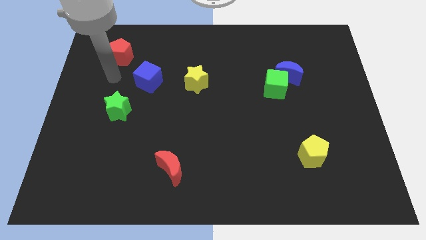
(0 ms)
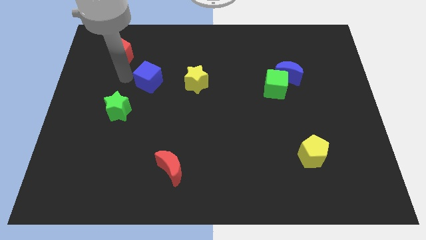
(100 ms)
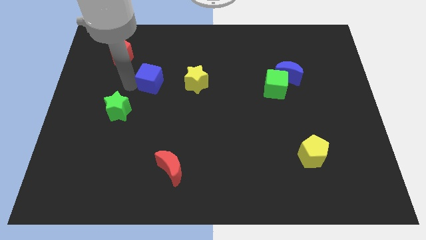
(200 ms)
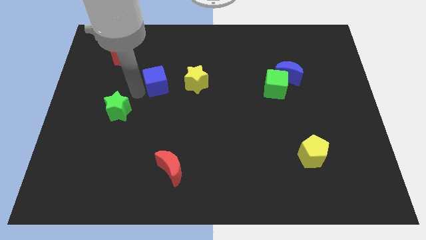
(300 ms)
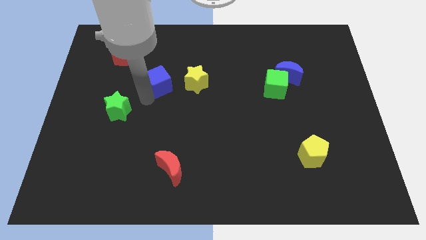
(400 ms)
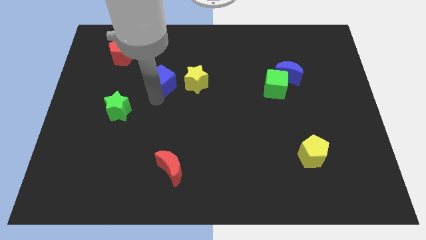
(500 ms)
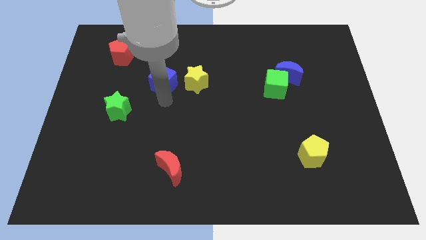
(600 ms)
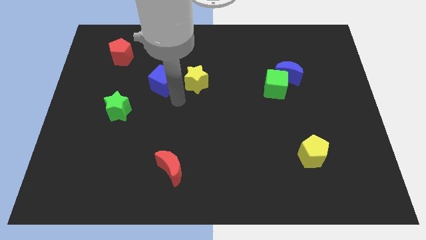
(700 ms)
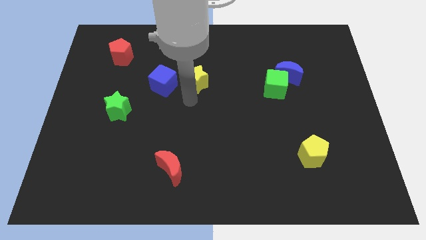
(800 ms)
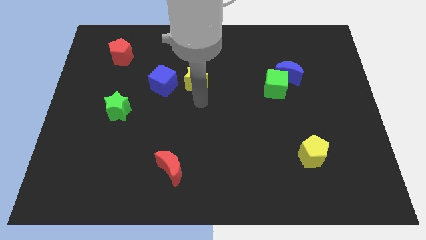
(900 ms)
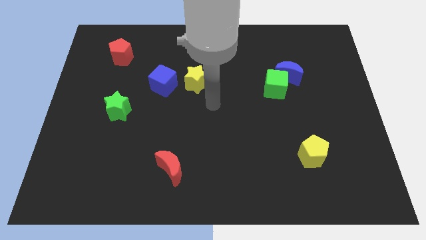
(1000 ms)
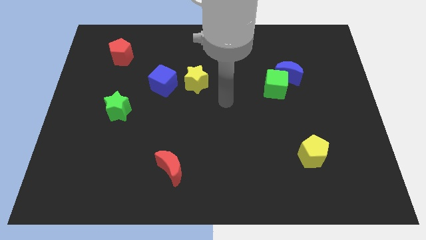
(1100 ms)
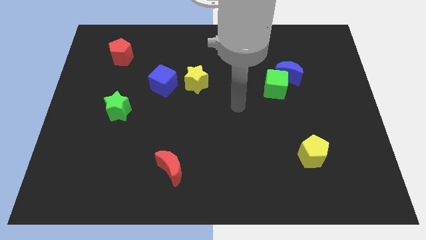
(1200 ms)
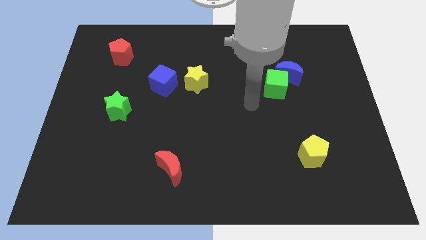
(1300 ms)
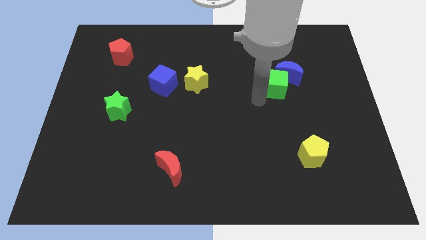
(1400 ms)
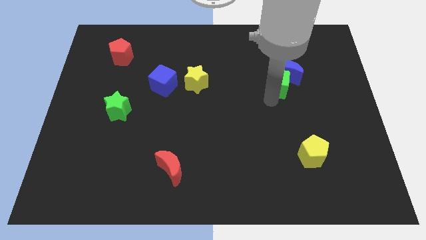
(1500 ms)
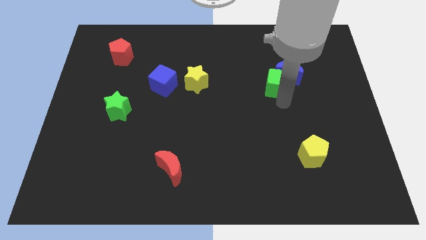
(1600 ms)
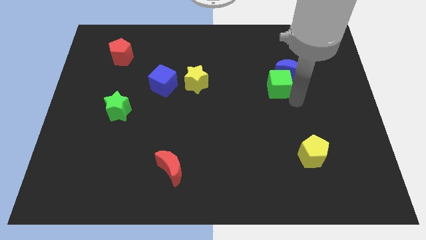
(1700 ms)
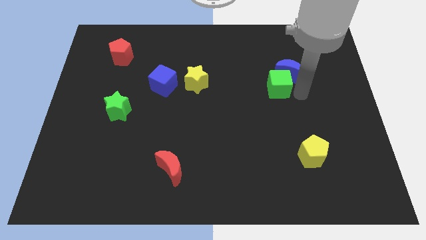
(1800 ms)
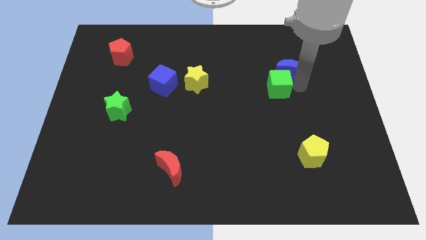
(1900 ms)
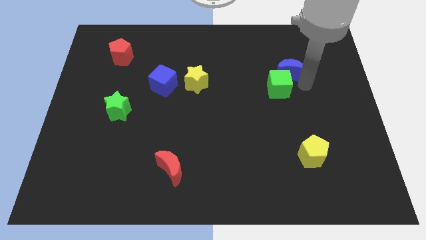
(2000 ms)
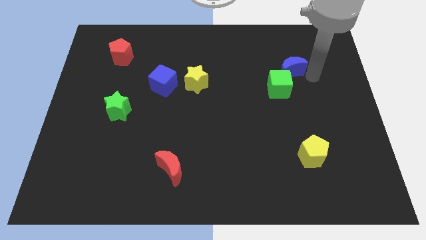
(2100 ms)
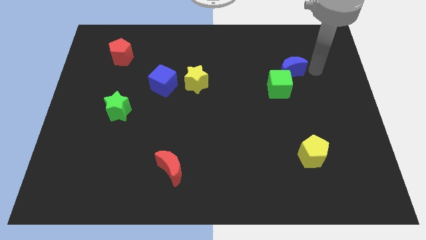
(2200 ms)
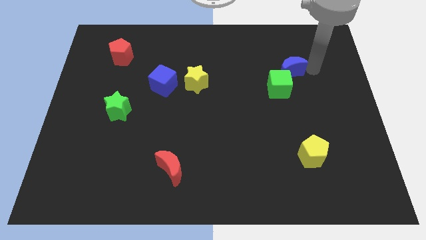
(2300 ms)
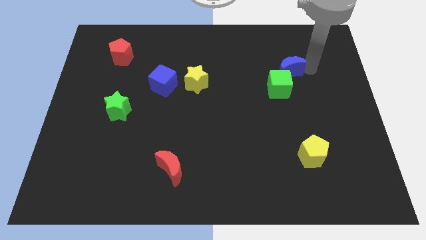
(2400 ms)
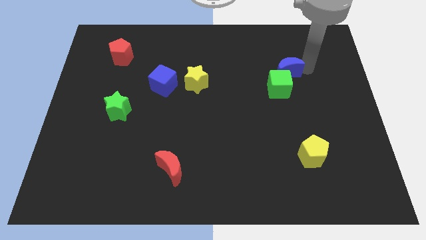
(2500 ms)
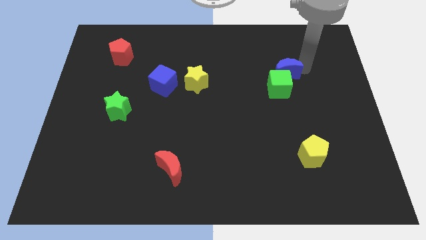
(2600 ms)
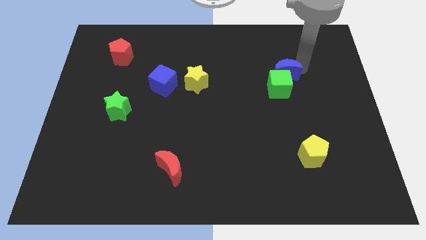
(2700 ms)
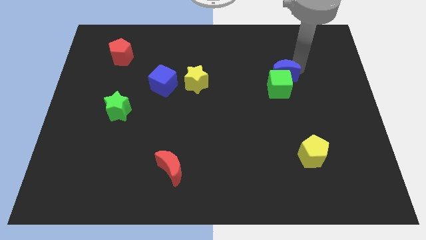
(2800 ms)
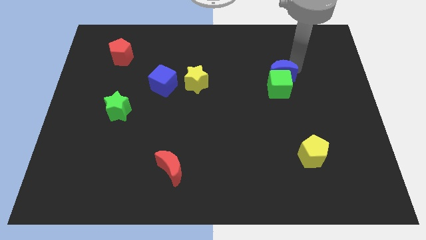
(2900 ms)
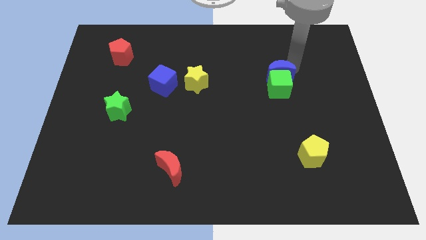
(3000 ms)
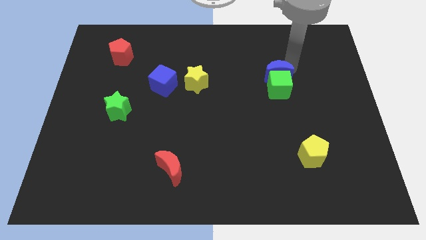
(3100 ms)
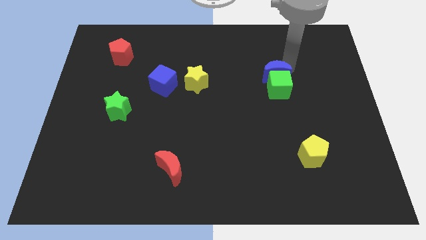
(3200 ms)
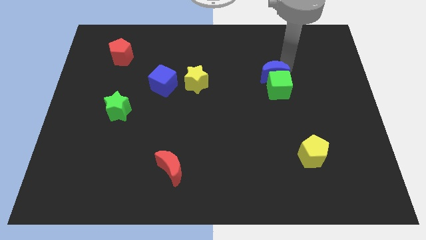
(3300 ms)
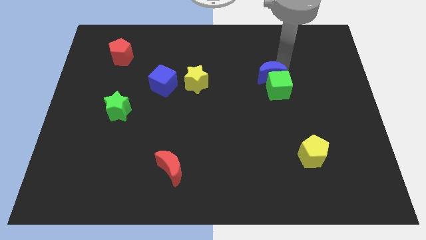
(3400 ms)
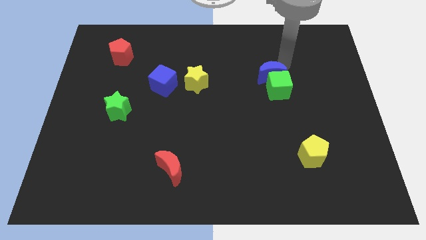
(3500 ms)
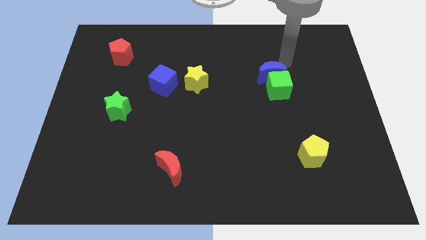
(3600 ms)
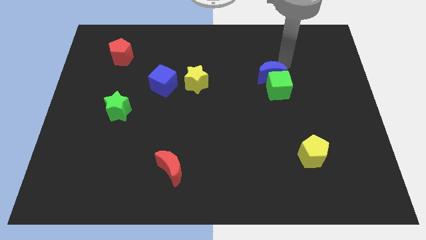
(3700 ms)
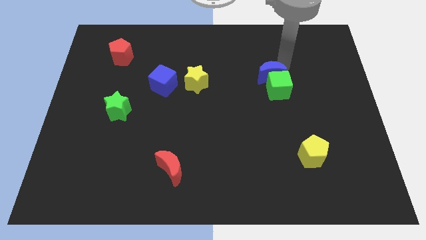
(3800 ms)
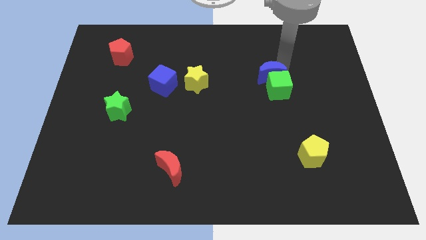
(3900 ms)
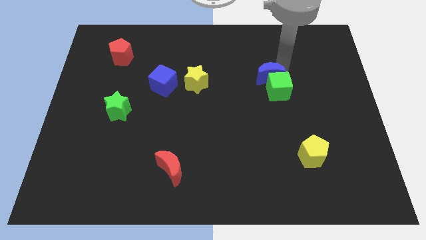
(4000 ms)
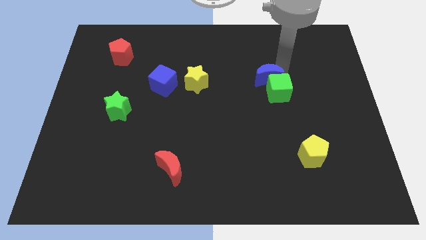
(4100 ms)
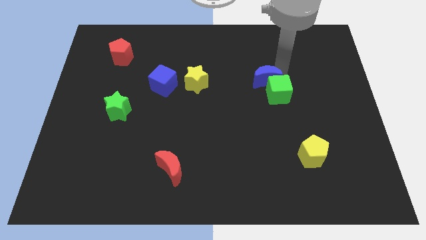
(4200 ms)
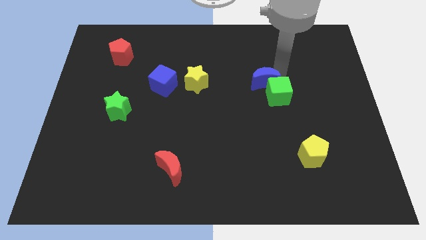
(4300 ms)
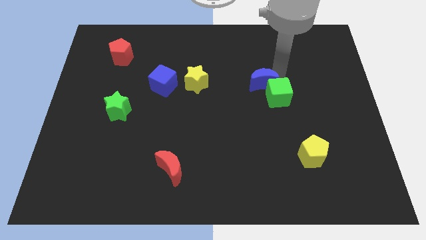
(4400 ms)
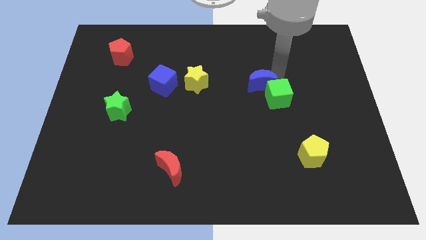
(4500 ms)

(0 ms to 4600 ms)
move the blue moon a bit diagonally down and to the left

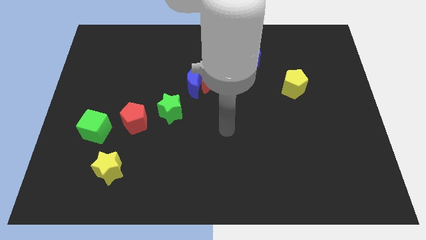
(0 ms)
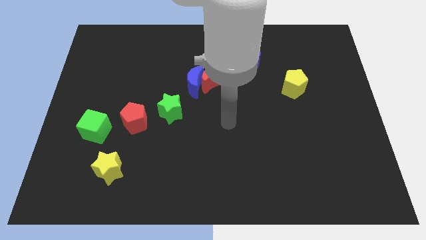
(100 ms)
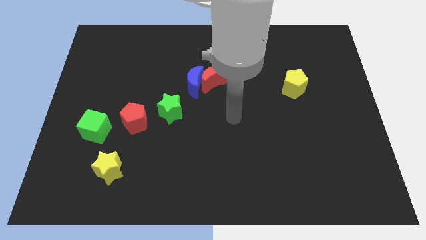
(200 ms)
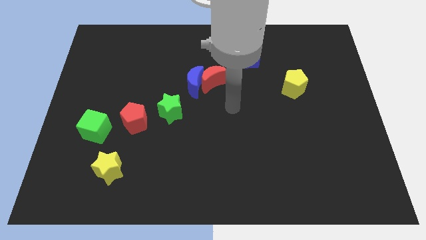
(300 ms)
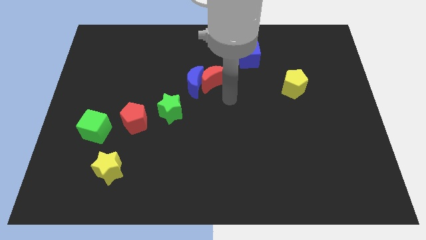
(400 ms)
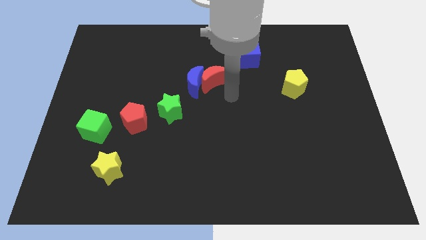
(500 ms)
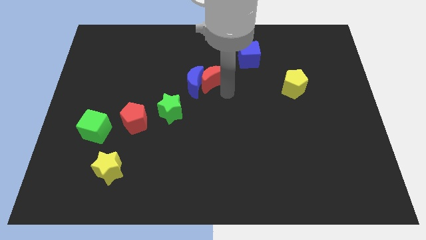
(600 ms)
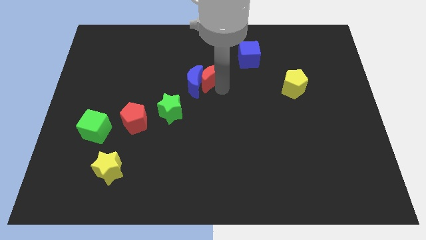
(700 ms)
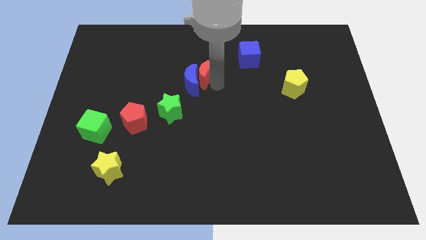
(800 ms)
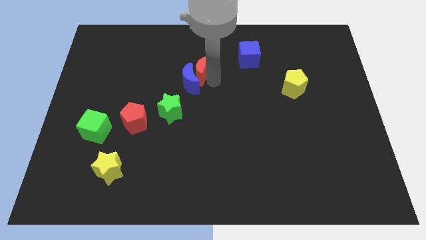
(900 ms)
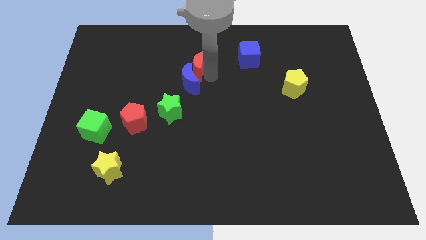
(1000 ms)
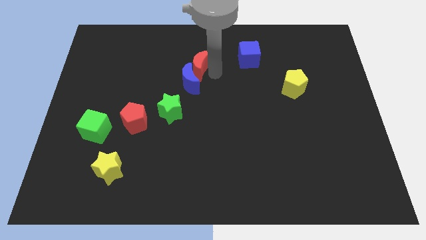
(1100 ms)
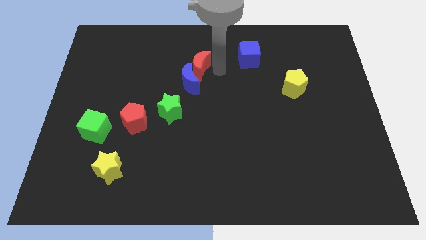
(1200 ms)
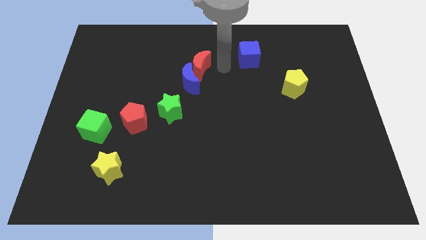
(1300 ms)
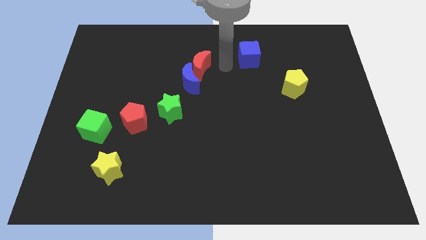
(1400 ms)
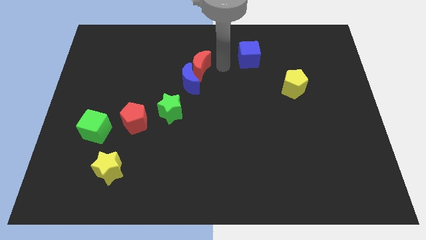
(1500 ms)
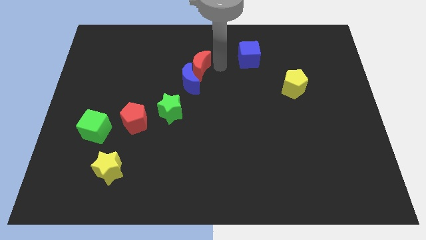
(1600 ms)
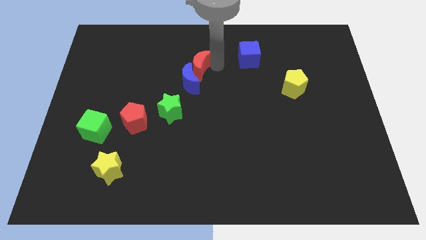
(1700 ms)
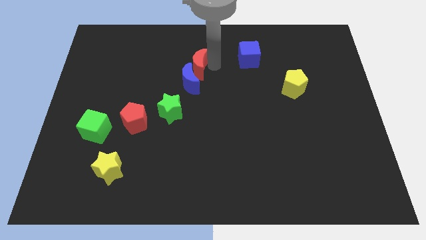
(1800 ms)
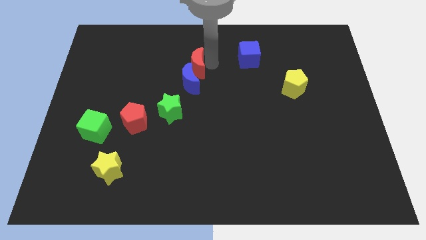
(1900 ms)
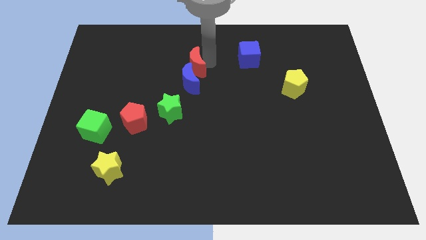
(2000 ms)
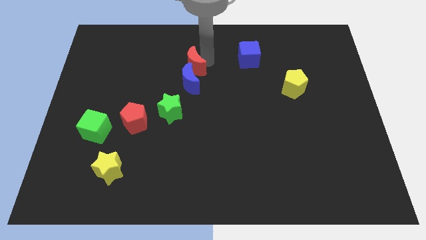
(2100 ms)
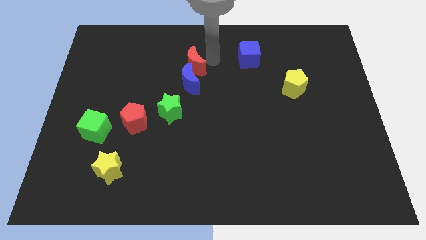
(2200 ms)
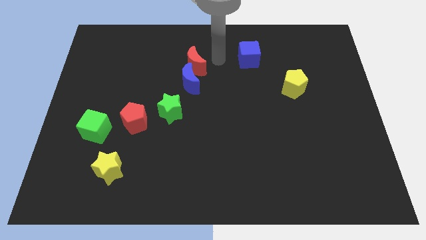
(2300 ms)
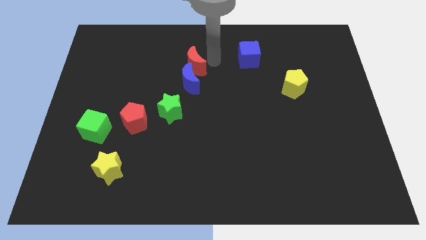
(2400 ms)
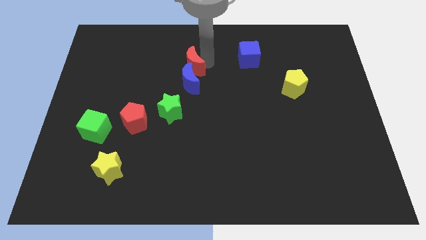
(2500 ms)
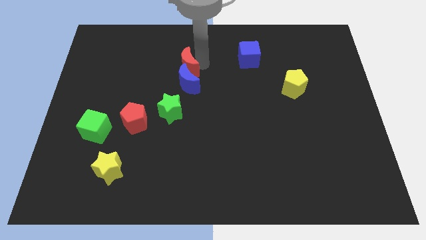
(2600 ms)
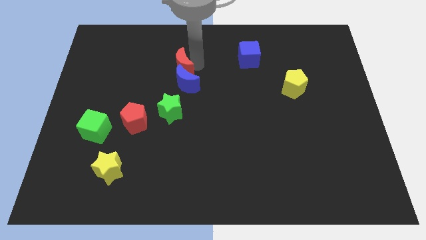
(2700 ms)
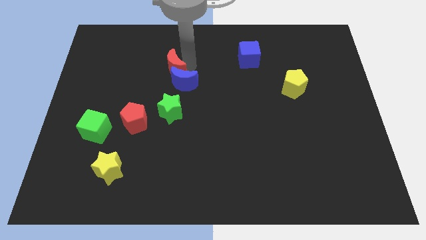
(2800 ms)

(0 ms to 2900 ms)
slide the red moon somewhat to the left

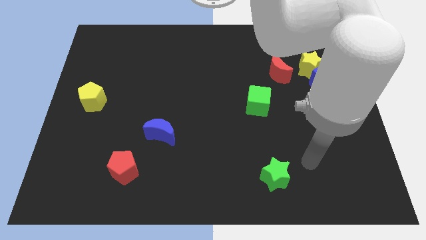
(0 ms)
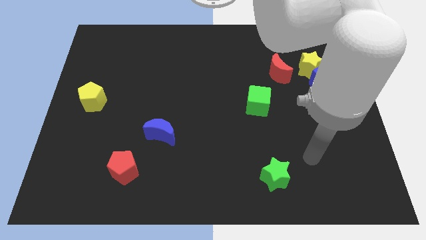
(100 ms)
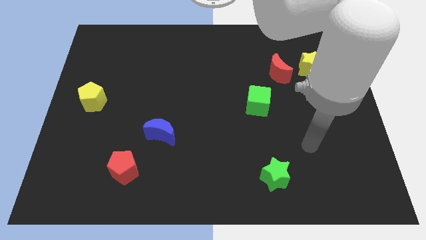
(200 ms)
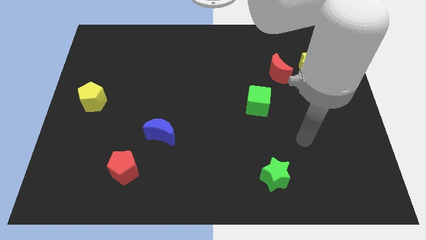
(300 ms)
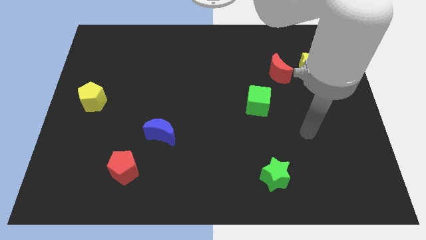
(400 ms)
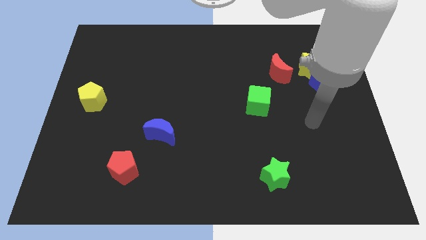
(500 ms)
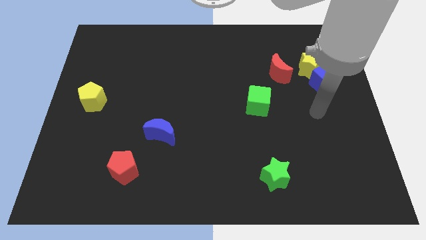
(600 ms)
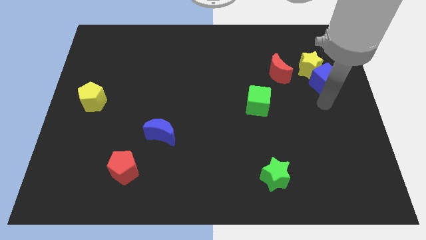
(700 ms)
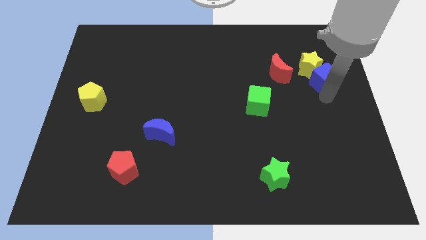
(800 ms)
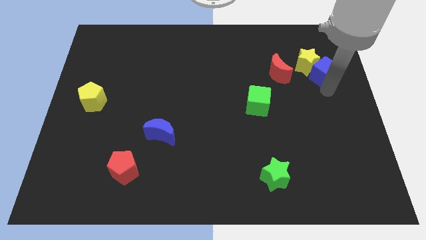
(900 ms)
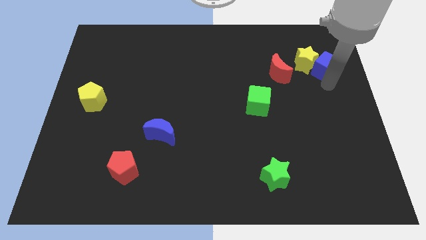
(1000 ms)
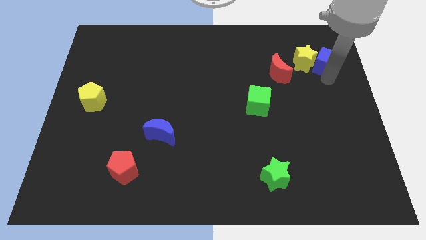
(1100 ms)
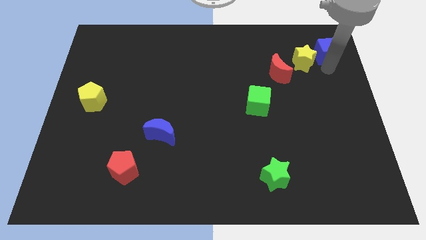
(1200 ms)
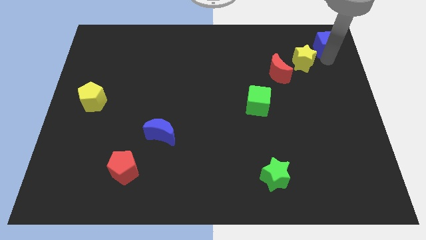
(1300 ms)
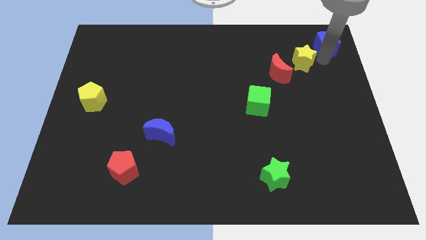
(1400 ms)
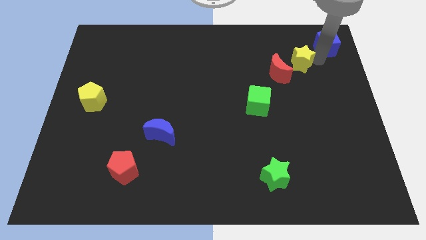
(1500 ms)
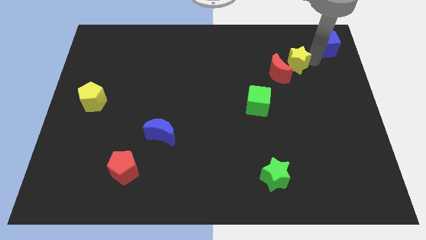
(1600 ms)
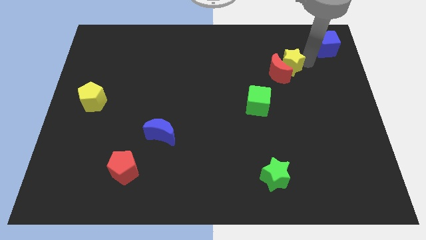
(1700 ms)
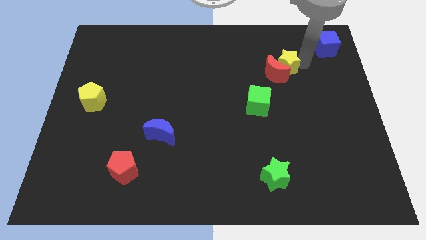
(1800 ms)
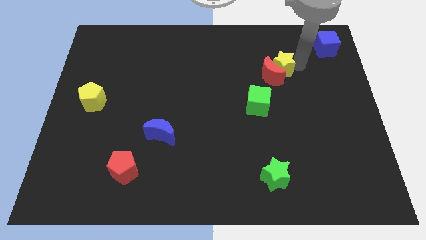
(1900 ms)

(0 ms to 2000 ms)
slide the yellow star a little left
